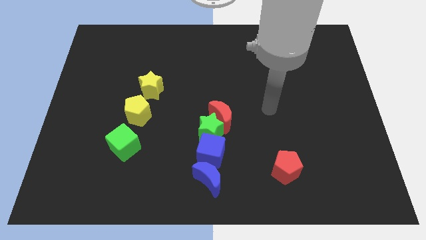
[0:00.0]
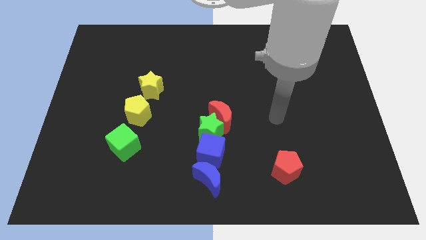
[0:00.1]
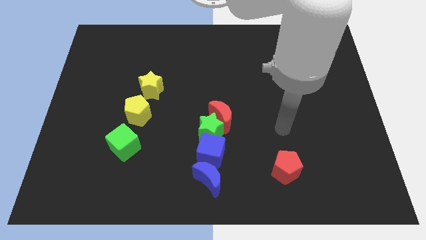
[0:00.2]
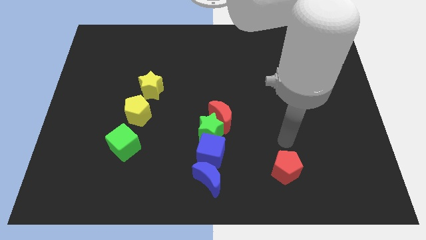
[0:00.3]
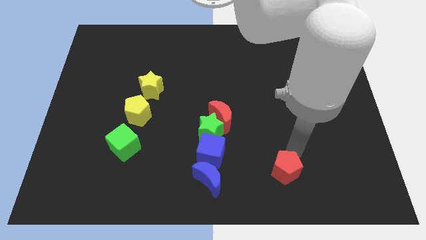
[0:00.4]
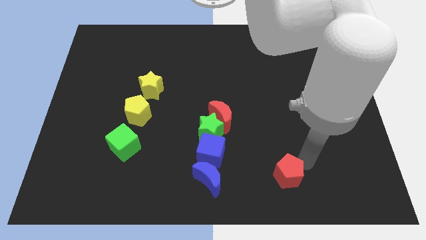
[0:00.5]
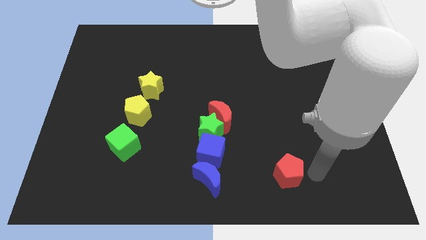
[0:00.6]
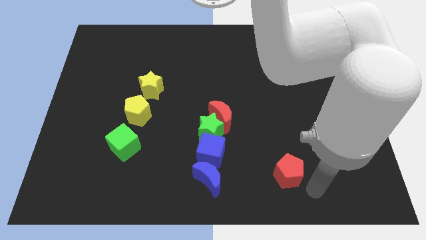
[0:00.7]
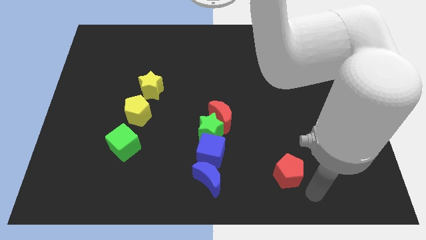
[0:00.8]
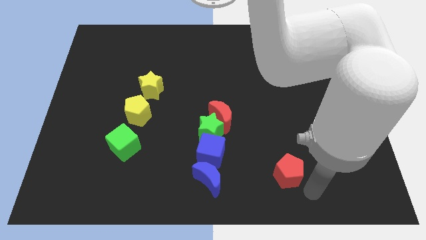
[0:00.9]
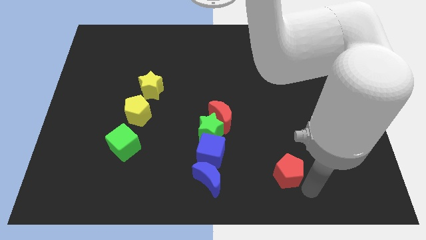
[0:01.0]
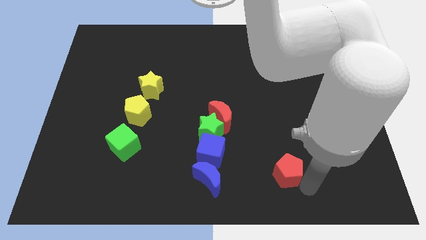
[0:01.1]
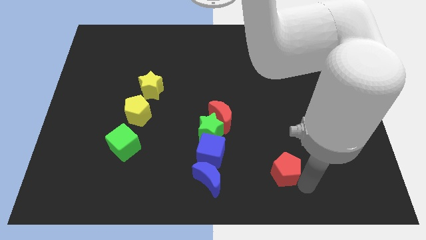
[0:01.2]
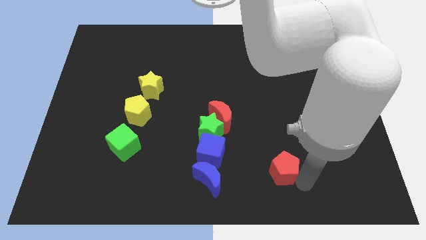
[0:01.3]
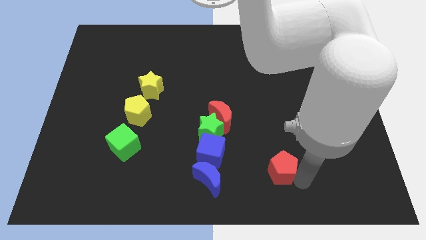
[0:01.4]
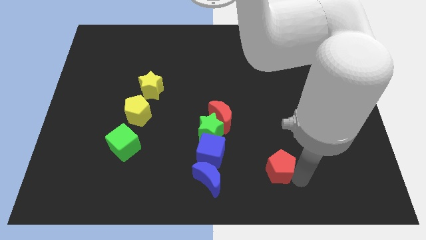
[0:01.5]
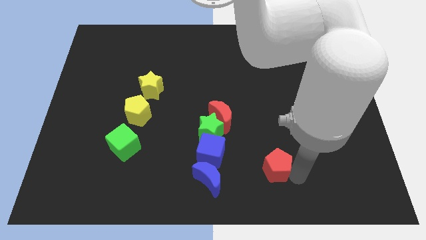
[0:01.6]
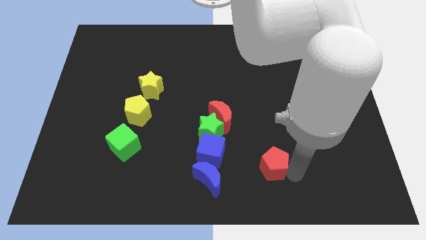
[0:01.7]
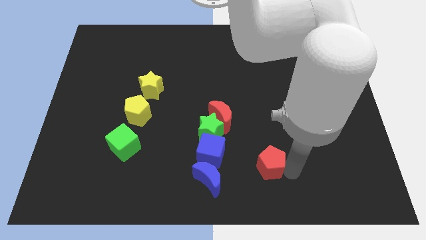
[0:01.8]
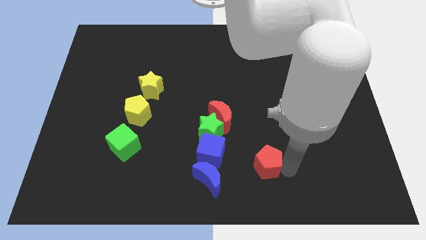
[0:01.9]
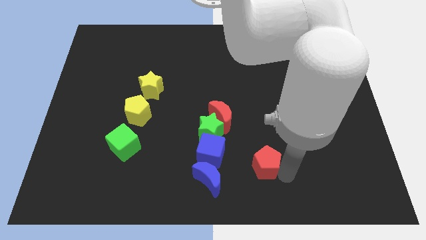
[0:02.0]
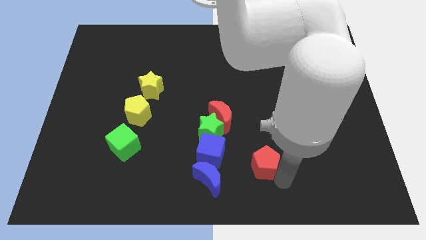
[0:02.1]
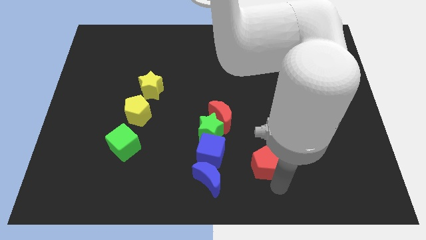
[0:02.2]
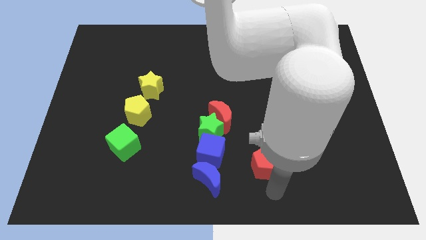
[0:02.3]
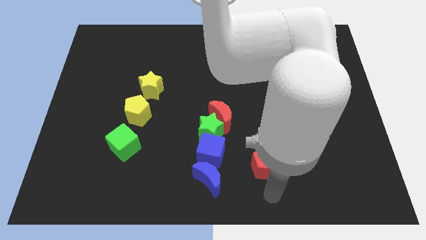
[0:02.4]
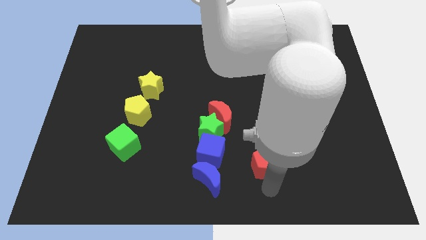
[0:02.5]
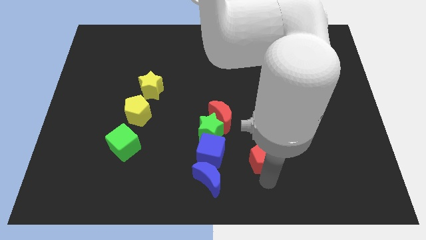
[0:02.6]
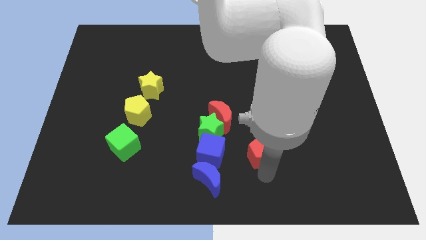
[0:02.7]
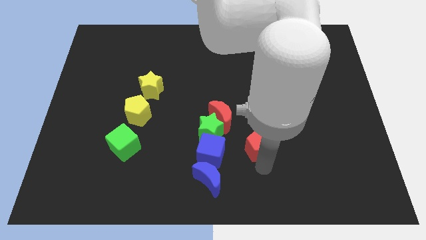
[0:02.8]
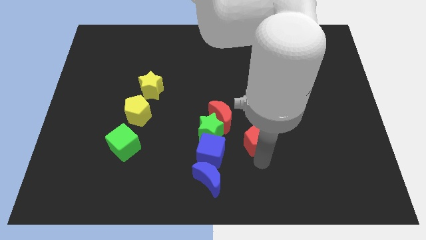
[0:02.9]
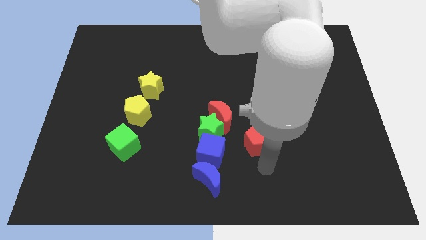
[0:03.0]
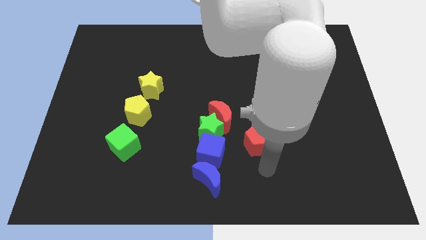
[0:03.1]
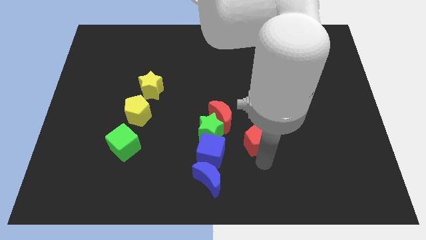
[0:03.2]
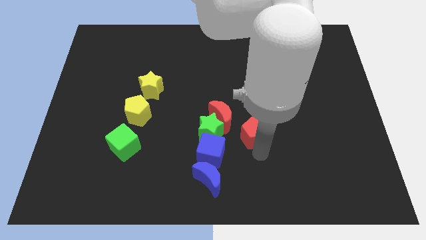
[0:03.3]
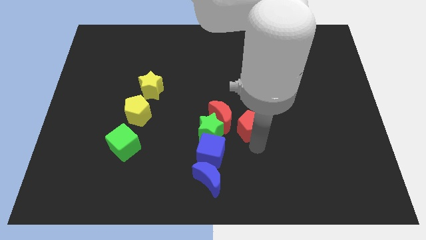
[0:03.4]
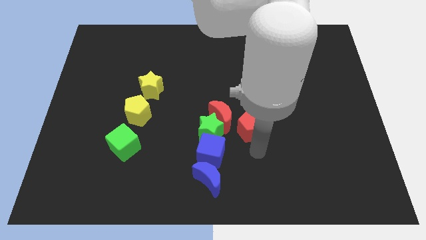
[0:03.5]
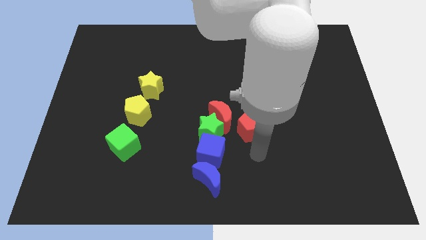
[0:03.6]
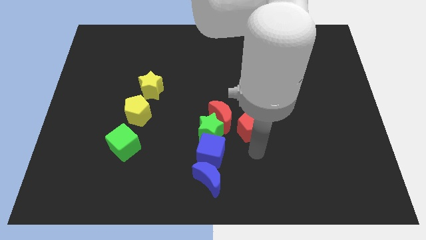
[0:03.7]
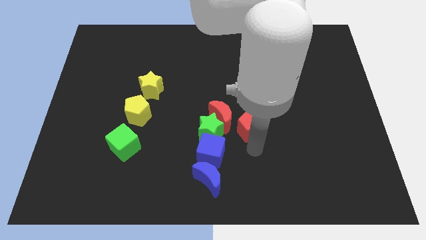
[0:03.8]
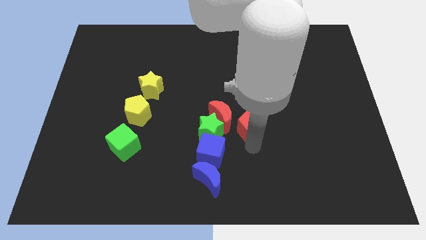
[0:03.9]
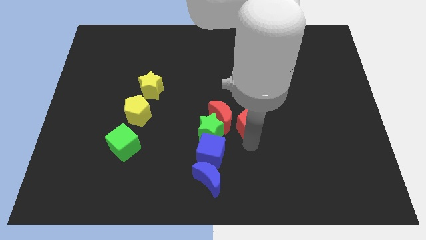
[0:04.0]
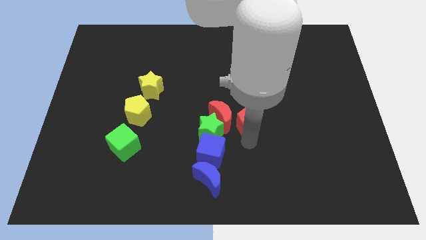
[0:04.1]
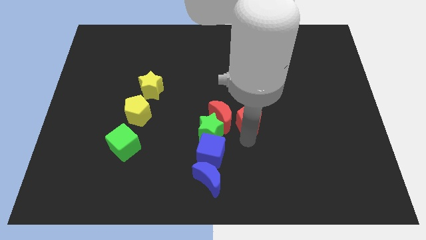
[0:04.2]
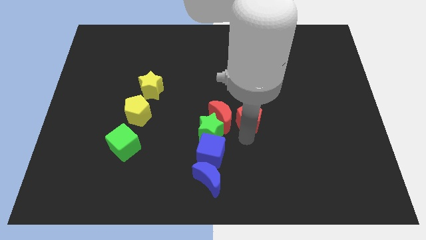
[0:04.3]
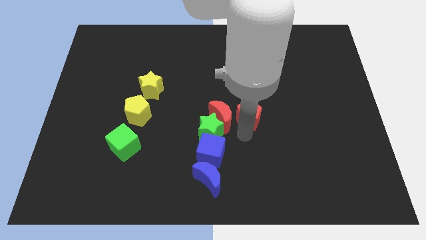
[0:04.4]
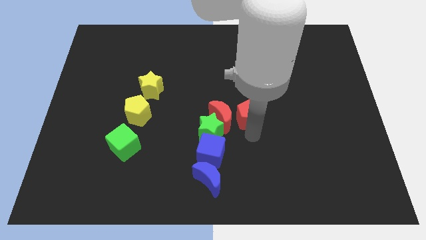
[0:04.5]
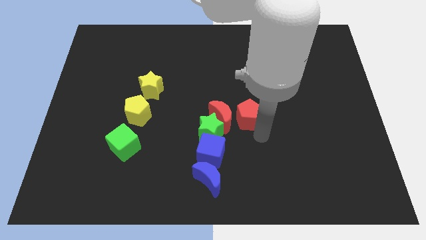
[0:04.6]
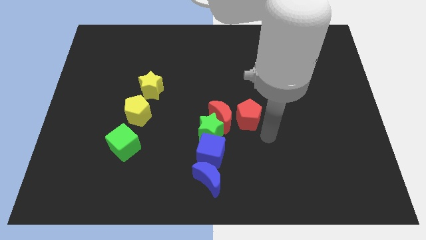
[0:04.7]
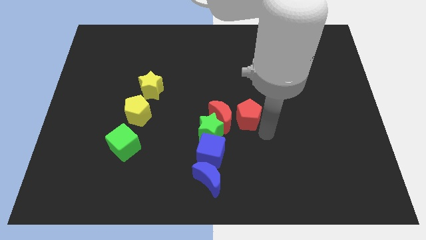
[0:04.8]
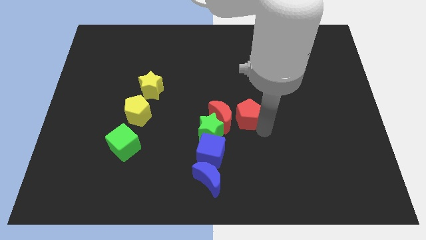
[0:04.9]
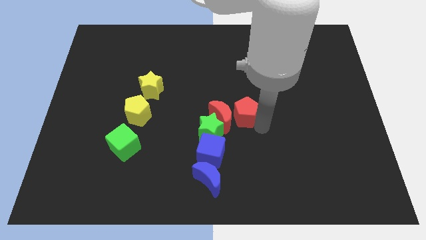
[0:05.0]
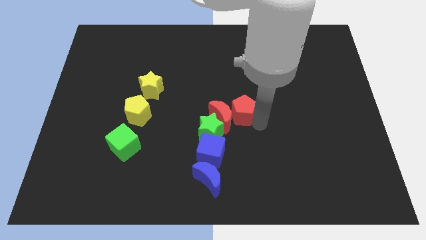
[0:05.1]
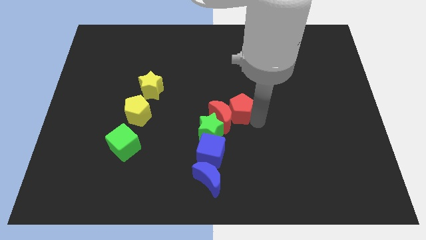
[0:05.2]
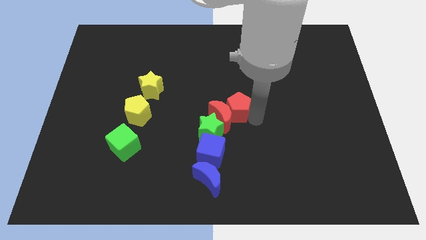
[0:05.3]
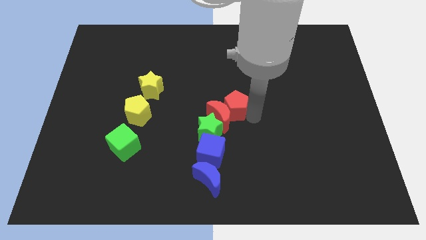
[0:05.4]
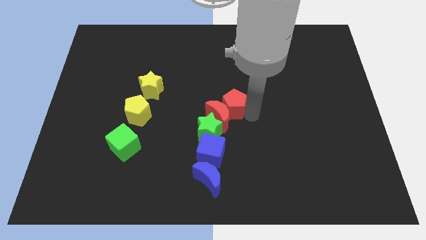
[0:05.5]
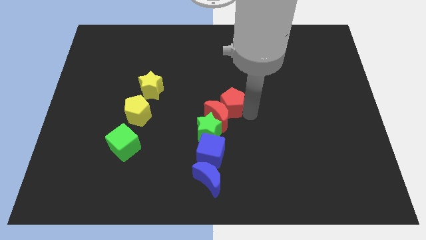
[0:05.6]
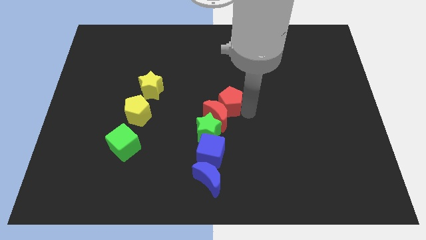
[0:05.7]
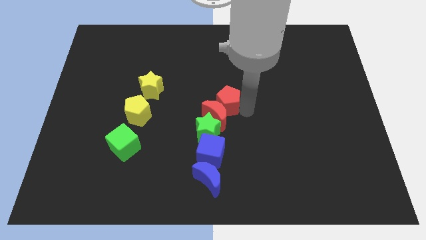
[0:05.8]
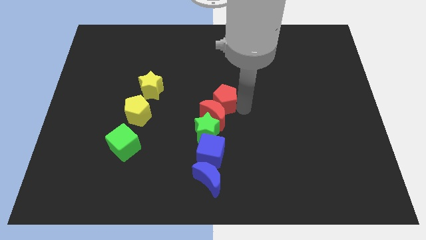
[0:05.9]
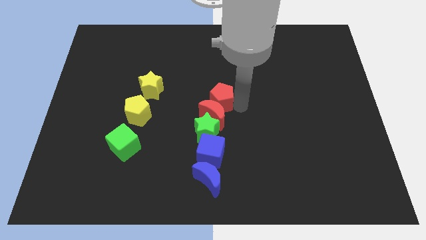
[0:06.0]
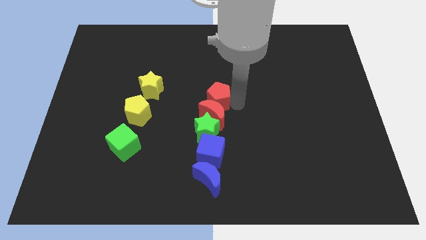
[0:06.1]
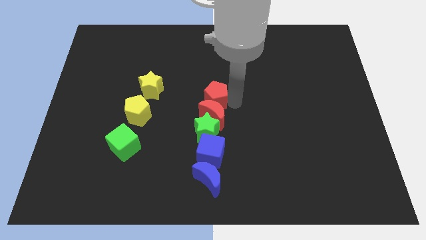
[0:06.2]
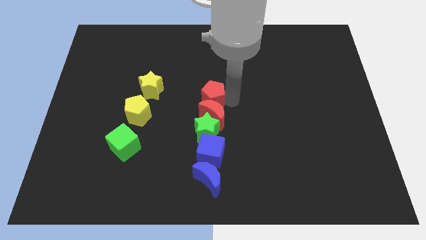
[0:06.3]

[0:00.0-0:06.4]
move the red pentagon to the right of the yellow star

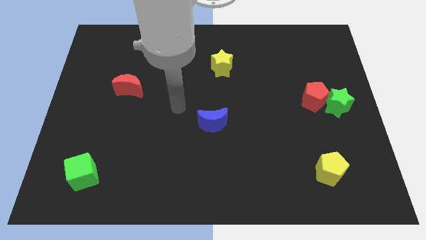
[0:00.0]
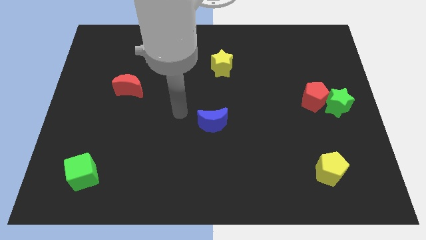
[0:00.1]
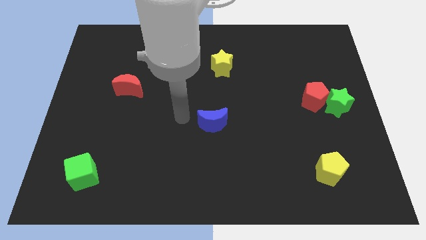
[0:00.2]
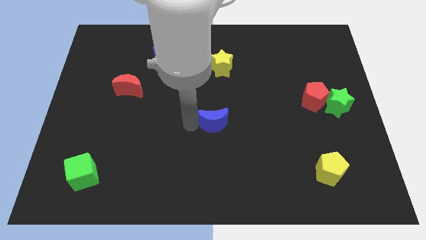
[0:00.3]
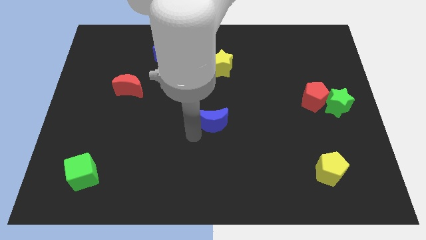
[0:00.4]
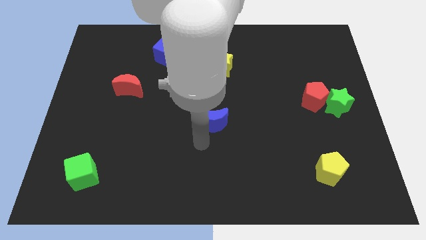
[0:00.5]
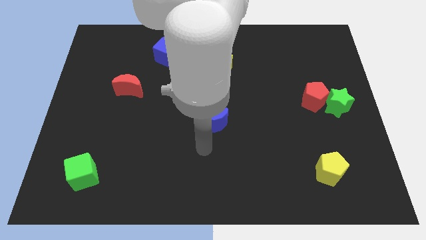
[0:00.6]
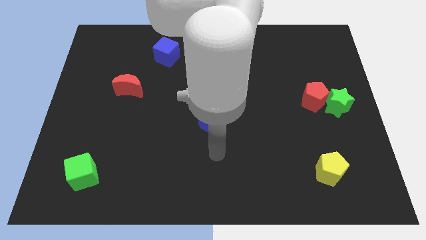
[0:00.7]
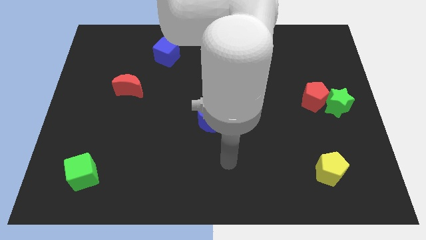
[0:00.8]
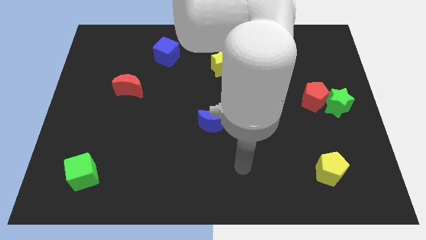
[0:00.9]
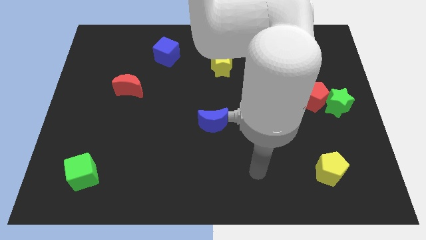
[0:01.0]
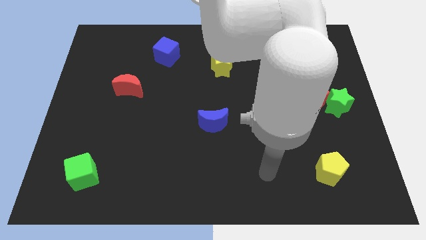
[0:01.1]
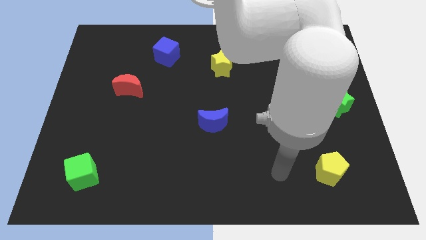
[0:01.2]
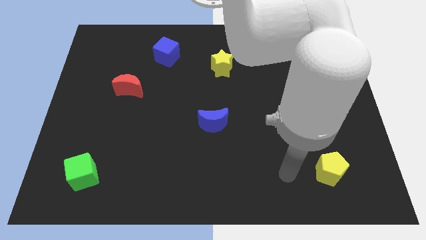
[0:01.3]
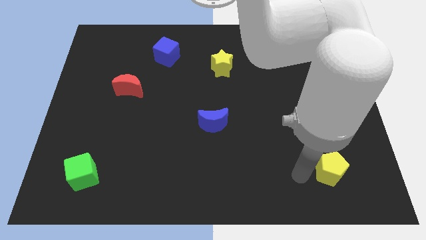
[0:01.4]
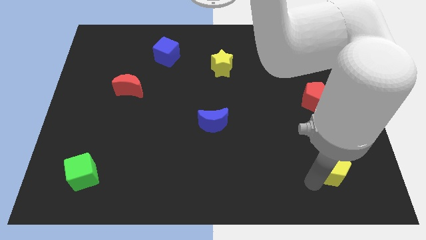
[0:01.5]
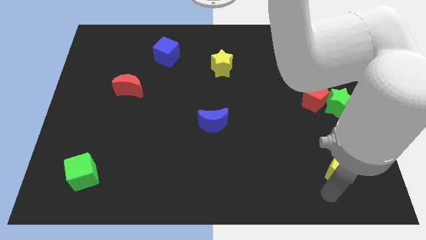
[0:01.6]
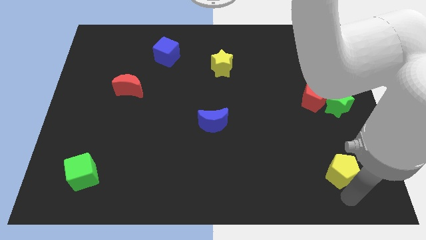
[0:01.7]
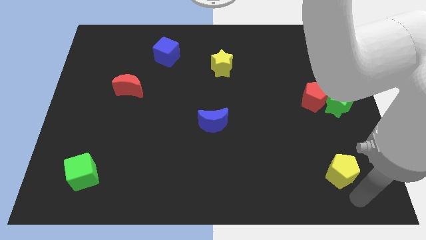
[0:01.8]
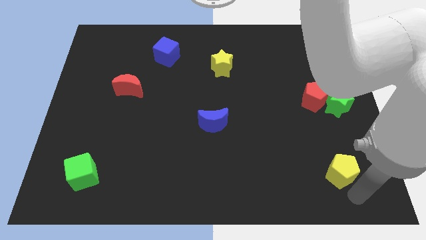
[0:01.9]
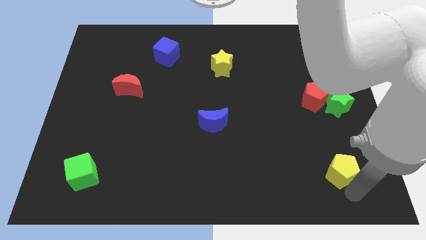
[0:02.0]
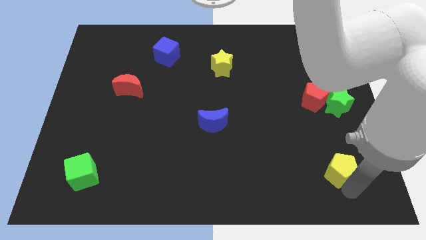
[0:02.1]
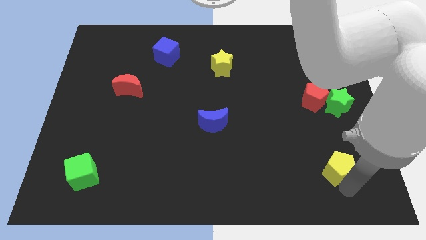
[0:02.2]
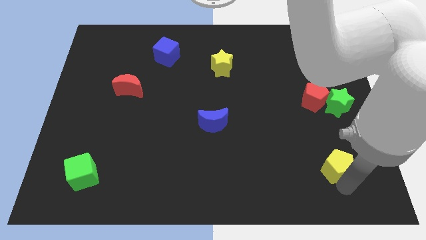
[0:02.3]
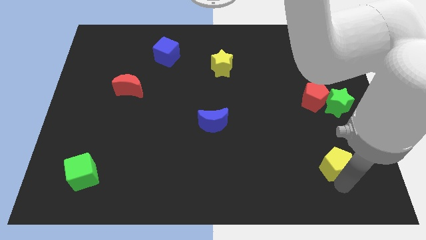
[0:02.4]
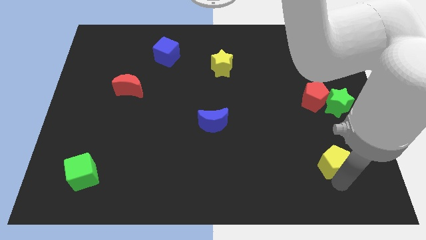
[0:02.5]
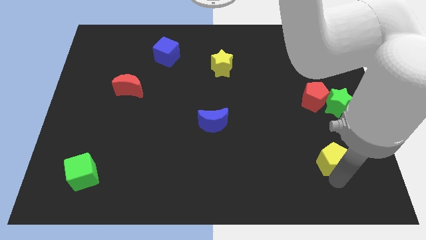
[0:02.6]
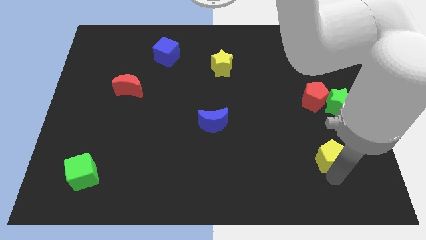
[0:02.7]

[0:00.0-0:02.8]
put the yellow pentagon to the bottom of the red pentagon
